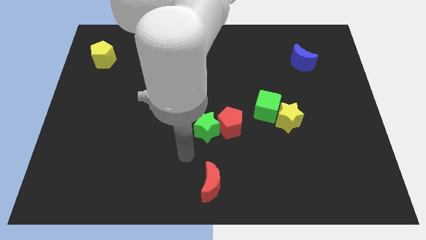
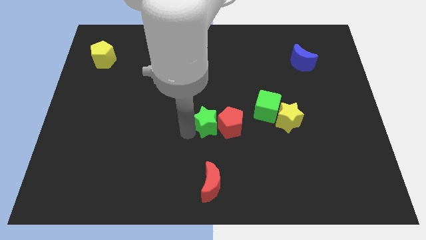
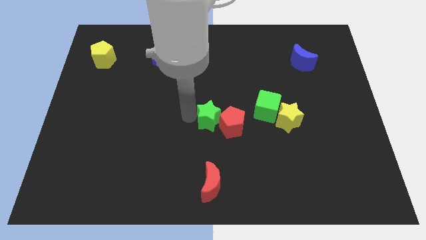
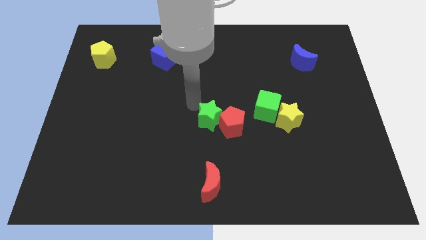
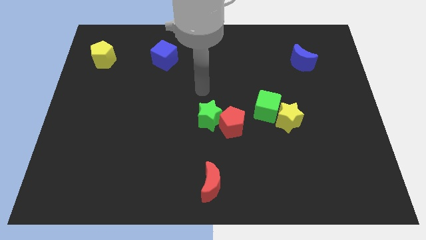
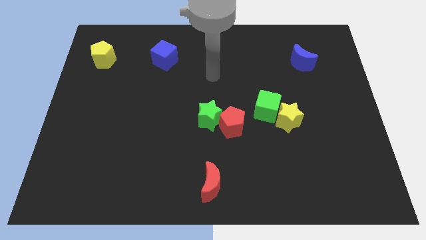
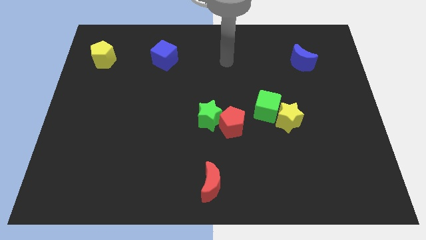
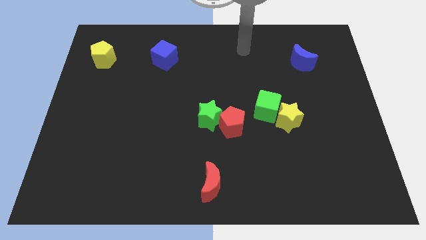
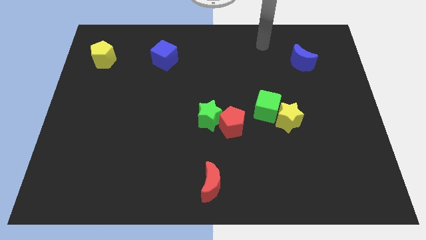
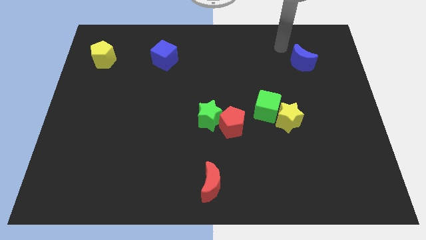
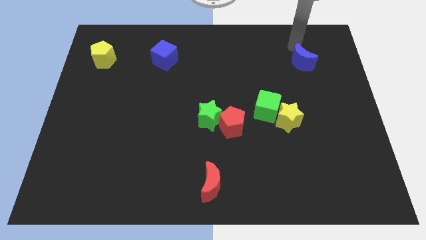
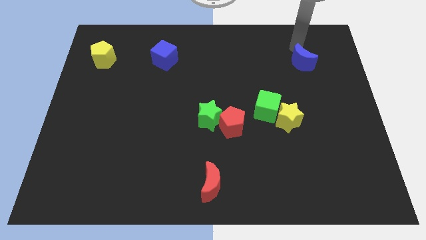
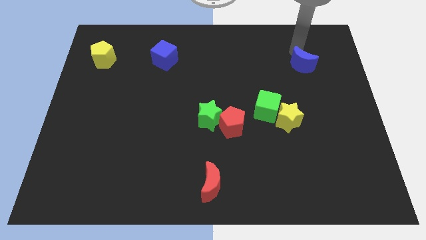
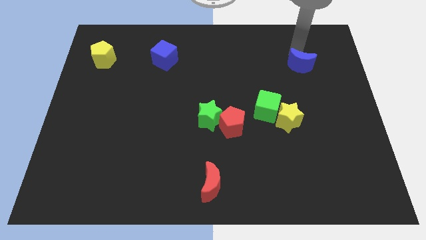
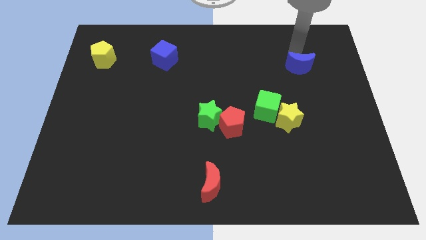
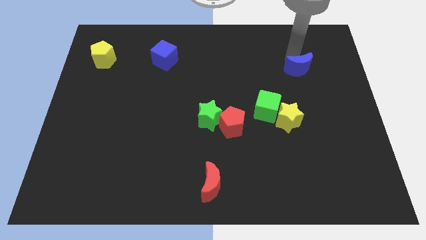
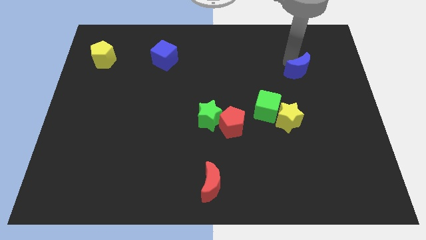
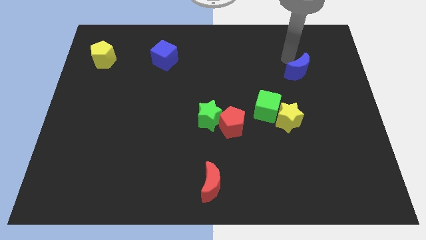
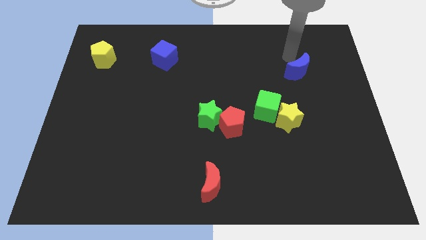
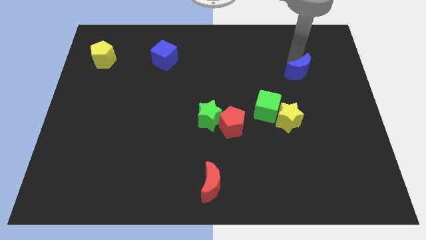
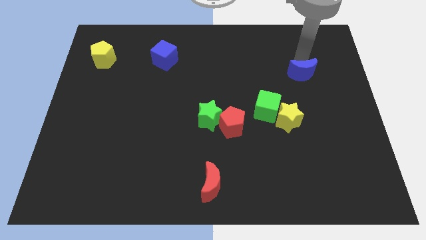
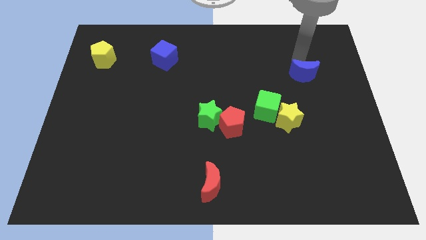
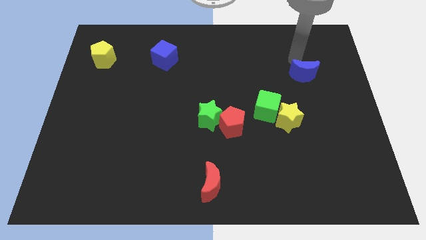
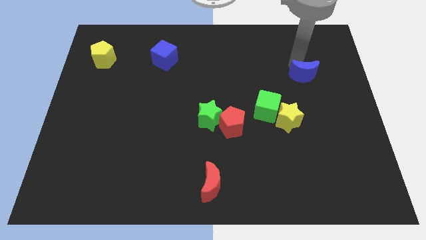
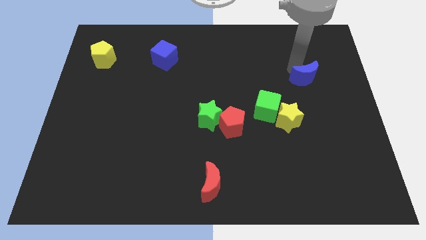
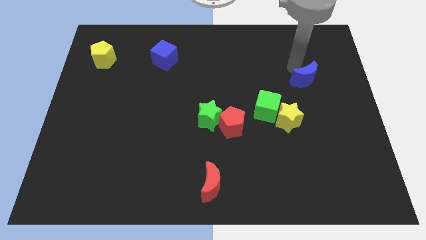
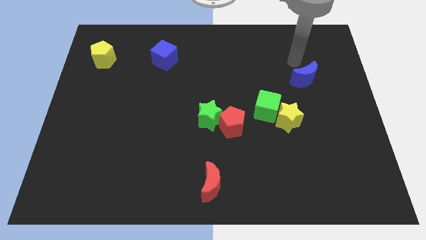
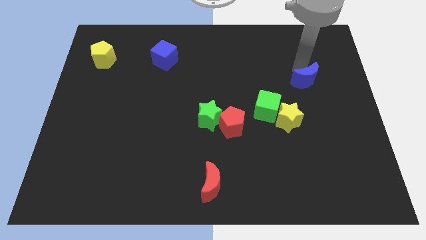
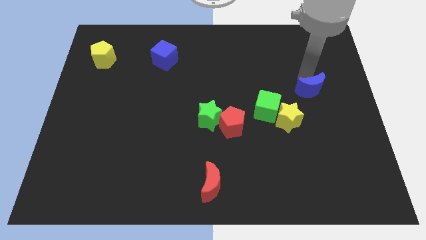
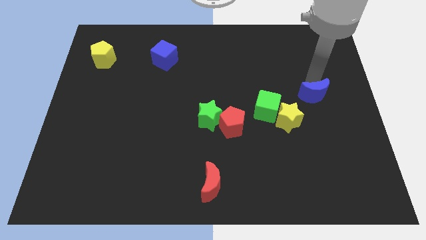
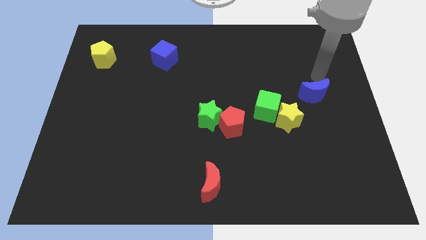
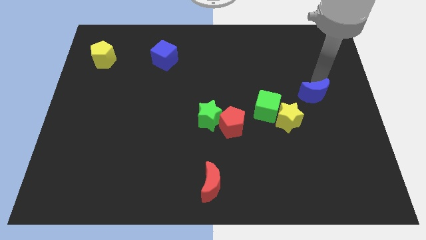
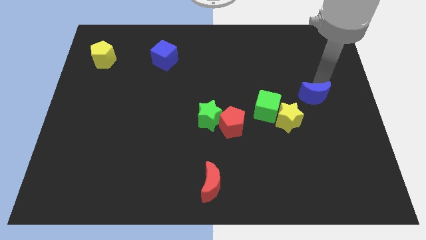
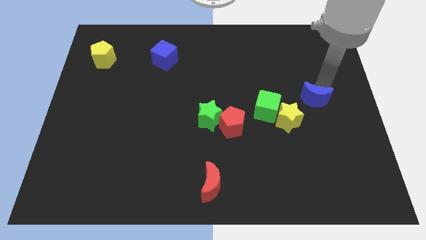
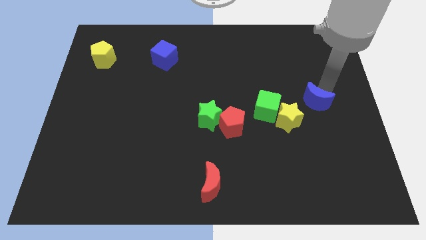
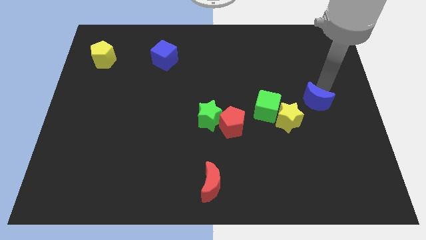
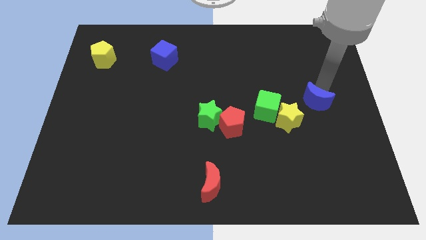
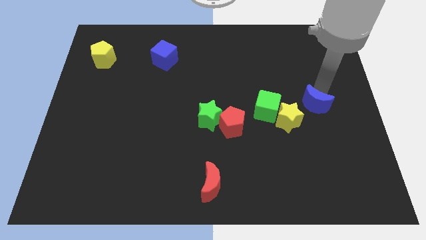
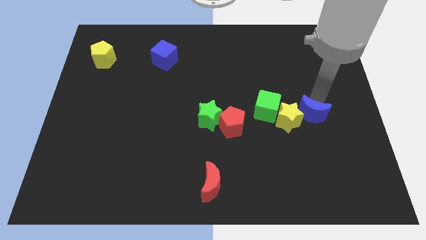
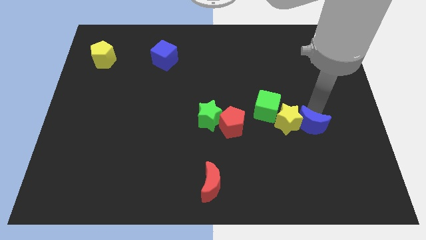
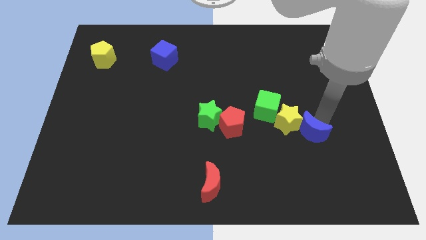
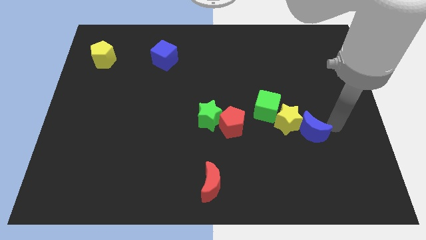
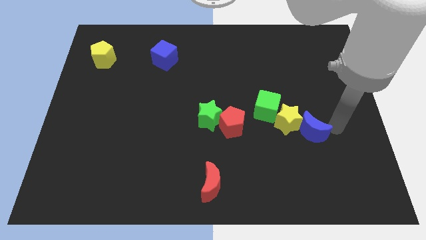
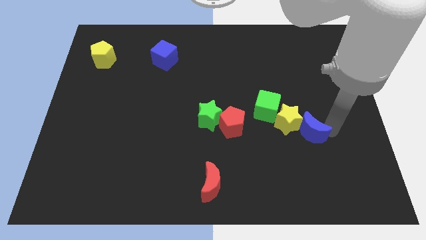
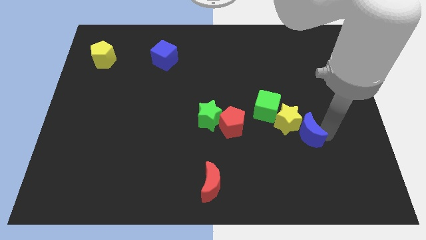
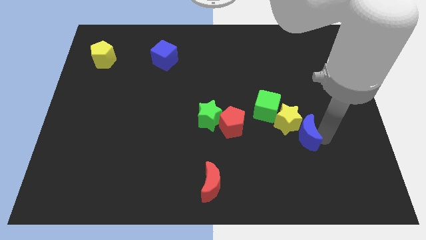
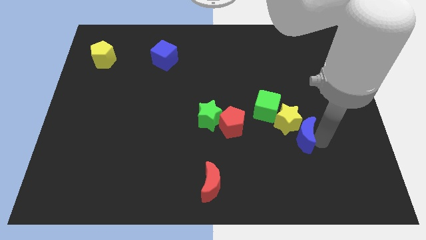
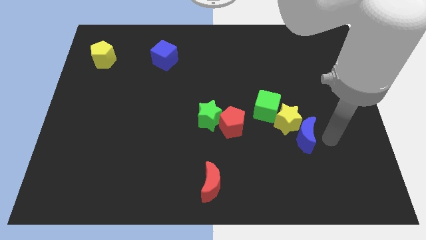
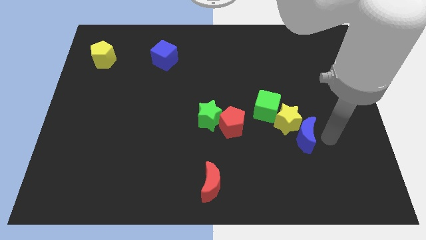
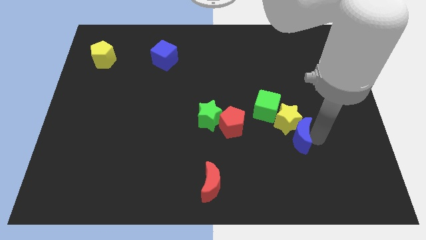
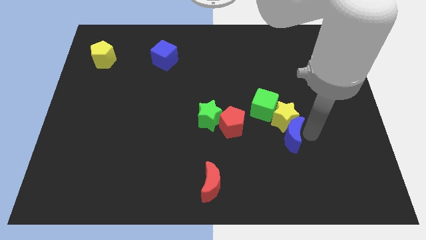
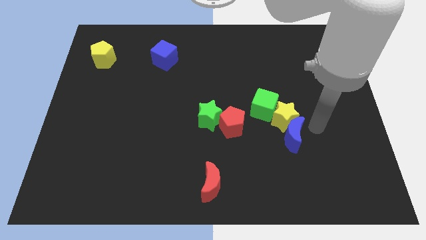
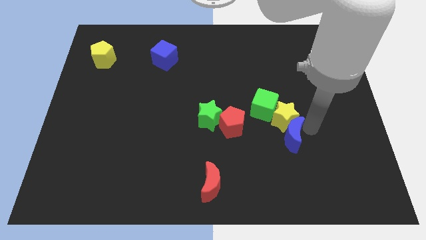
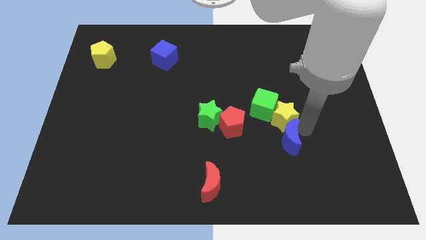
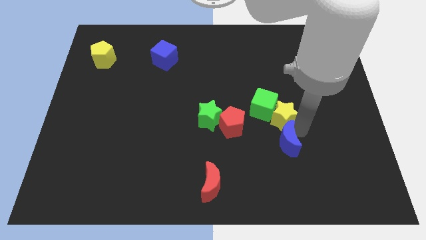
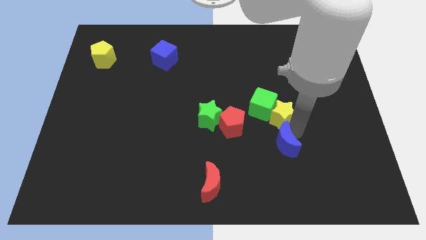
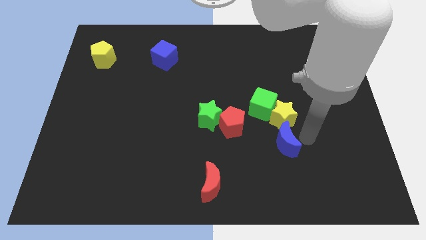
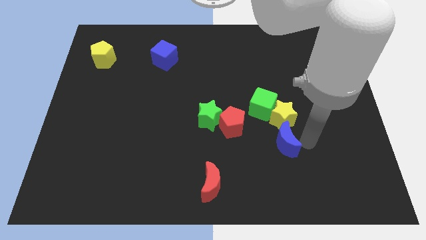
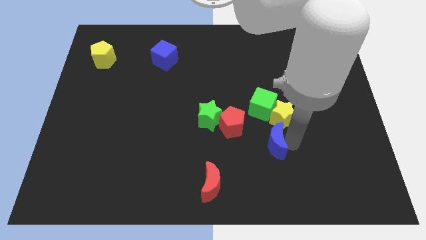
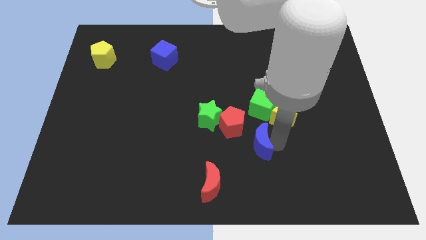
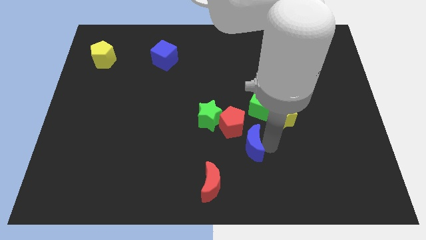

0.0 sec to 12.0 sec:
move the blue moon to the bottom right side of the green star

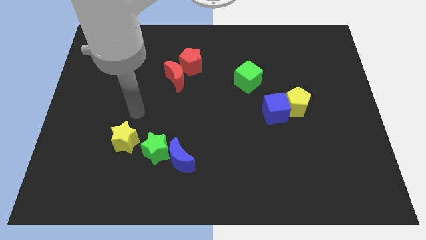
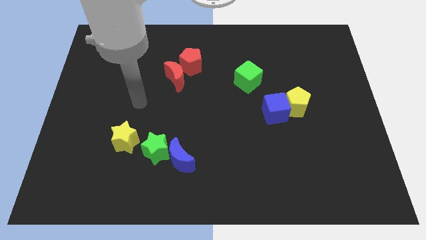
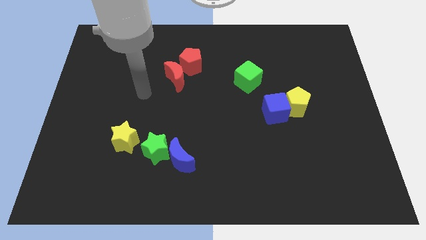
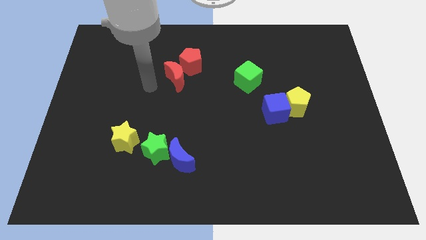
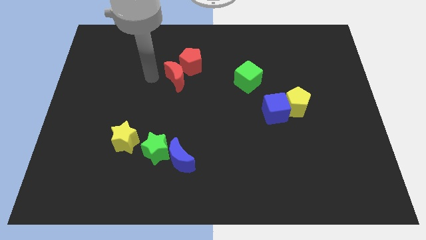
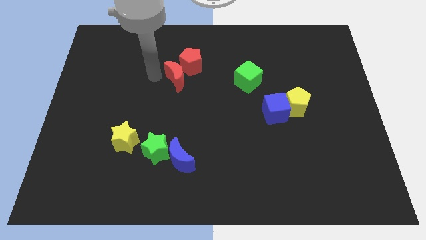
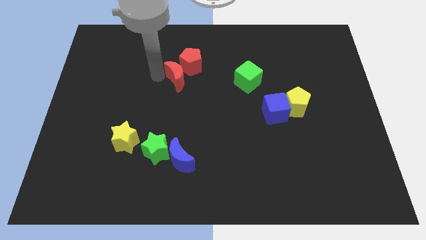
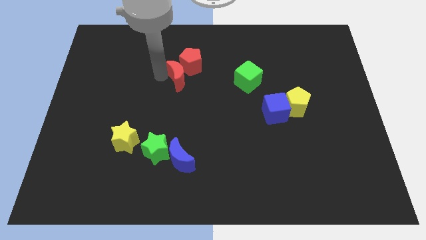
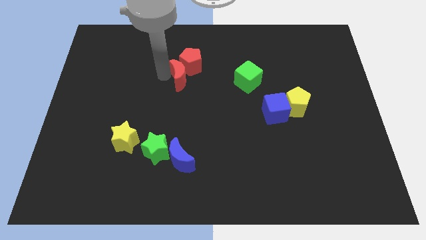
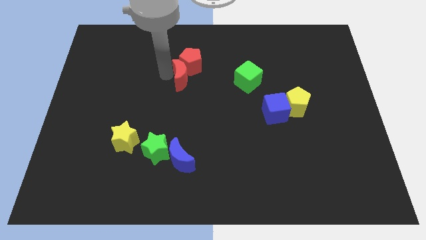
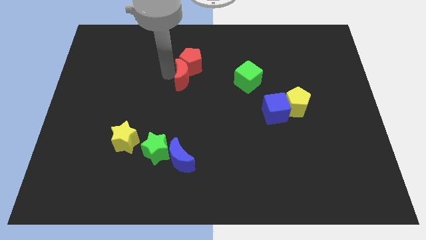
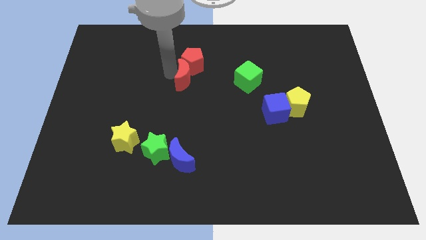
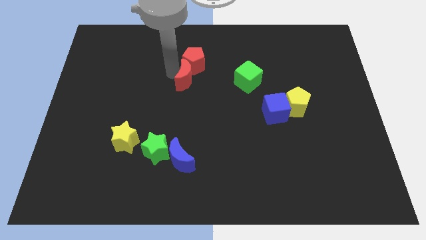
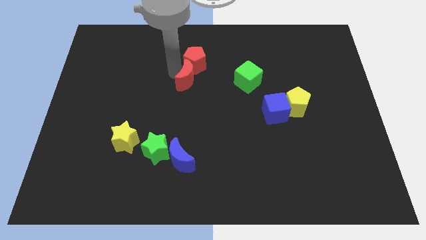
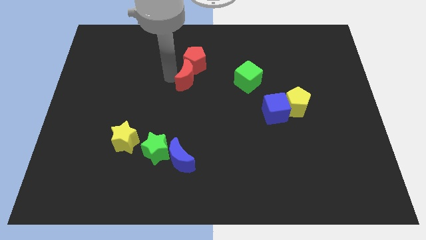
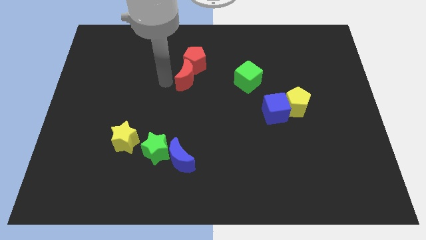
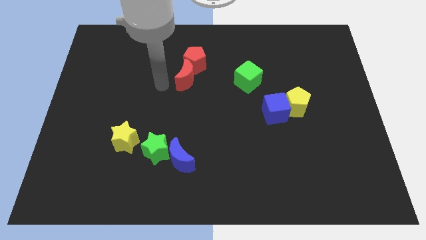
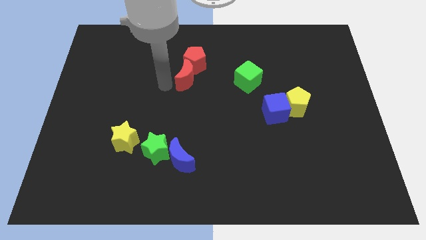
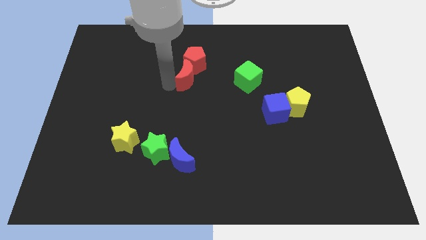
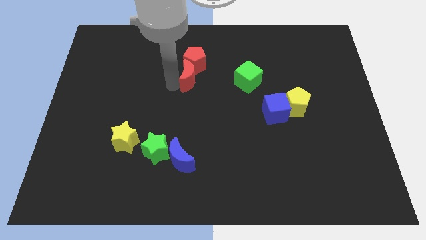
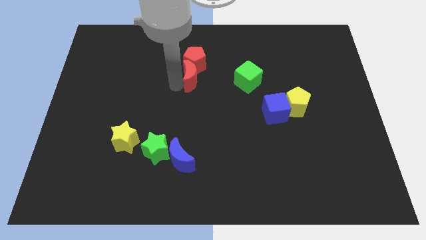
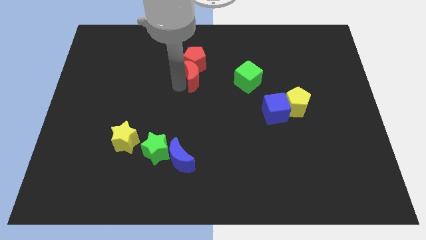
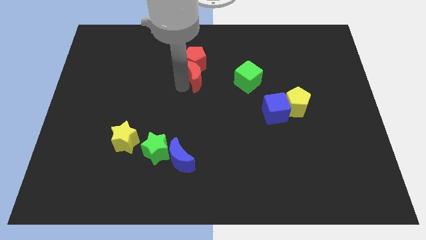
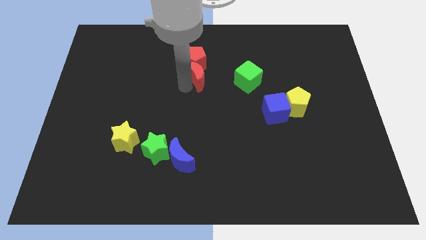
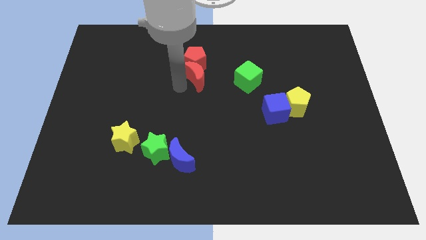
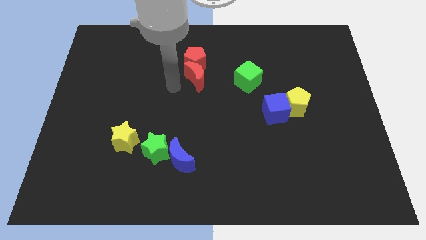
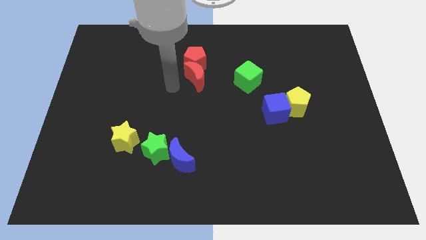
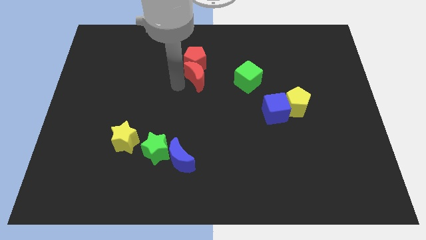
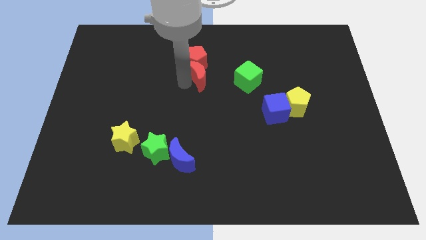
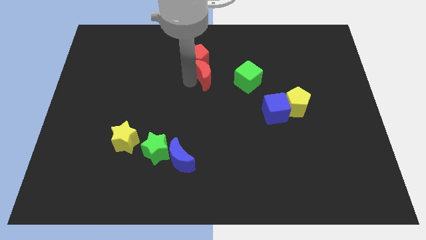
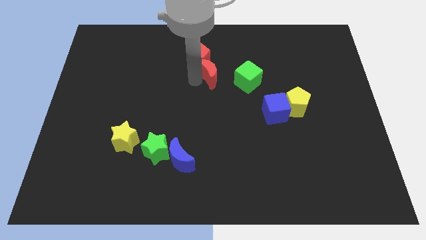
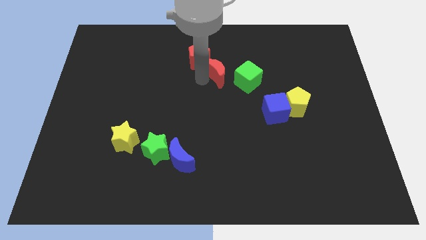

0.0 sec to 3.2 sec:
slide the red moon diagonally up and to the left of the green cube
